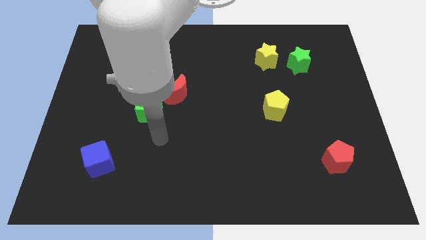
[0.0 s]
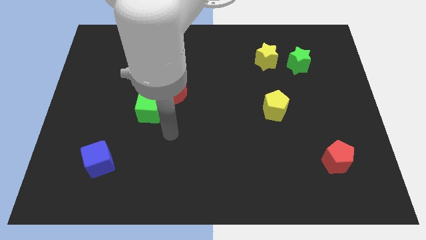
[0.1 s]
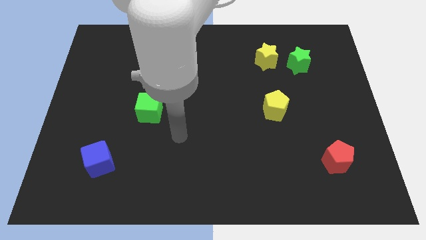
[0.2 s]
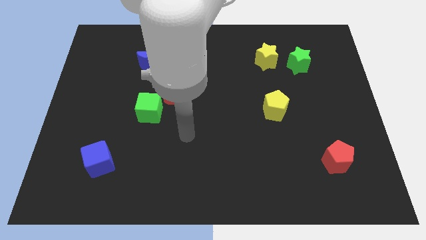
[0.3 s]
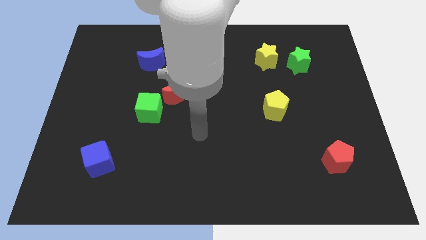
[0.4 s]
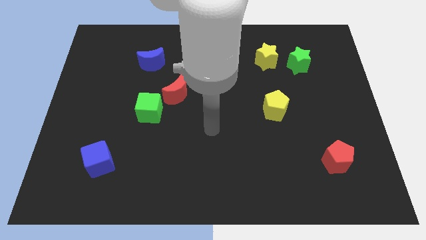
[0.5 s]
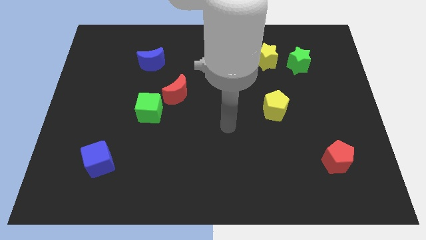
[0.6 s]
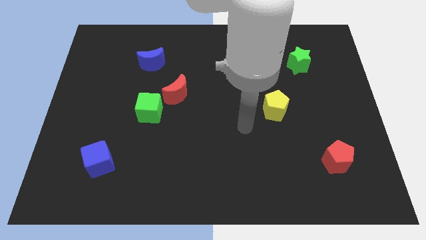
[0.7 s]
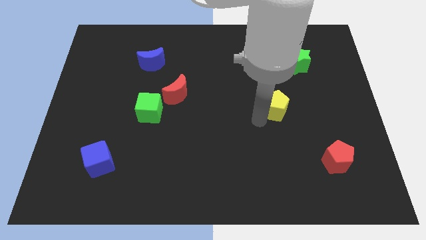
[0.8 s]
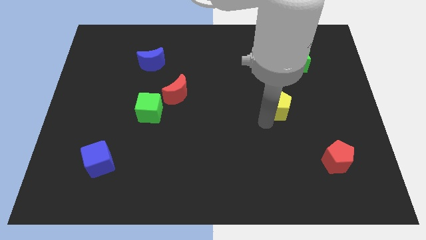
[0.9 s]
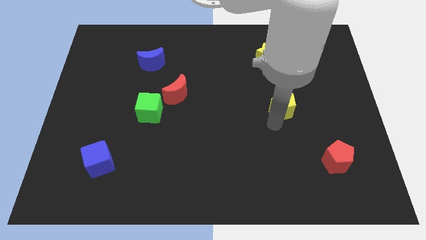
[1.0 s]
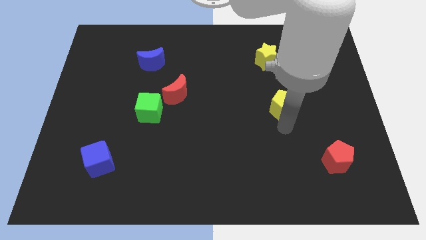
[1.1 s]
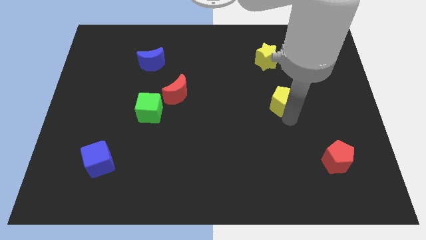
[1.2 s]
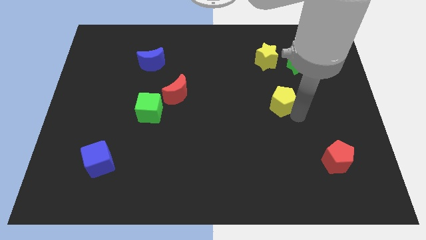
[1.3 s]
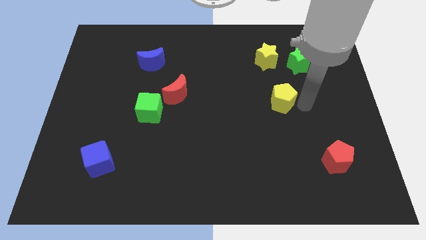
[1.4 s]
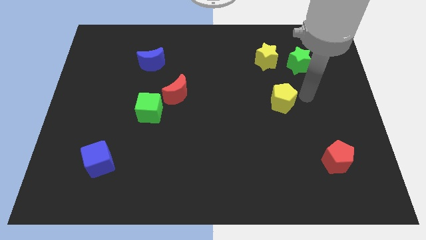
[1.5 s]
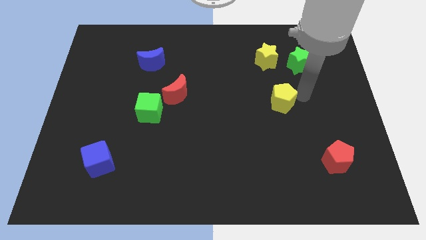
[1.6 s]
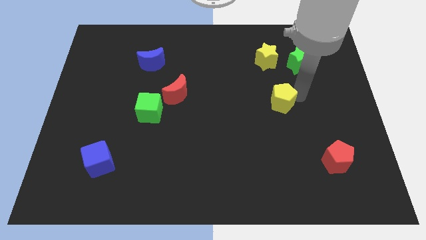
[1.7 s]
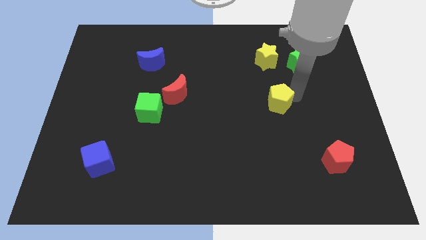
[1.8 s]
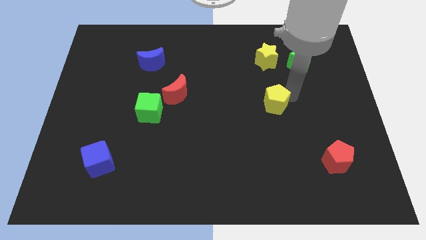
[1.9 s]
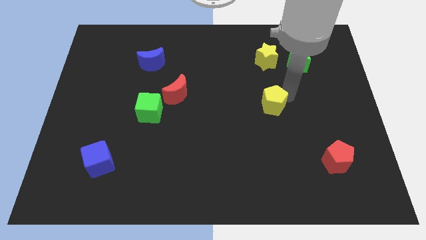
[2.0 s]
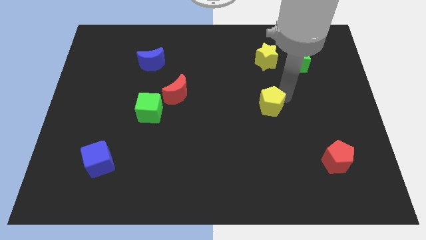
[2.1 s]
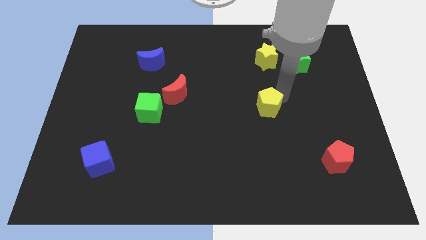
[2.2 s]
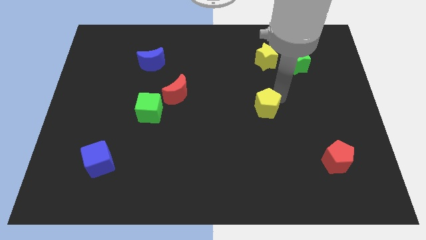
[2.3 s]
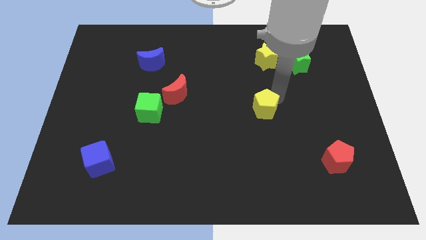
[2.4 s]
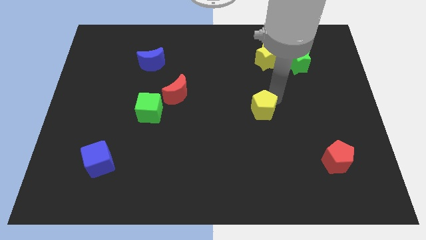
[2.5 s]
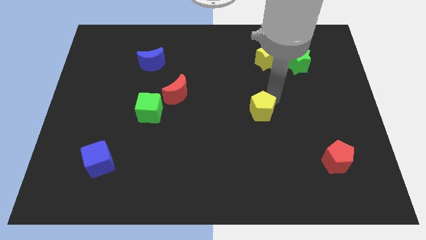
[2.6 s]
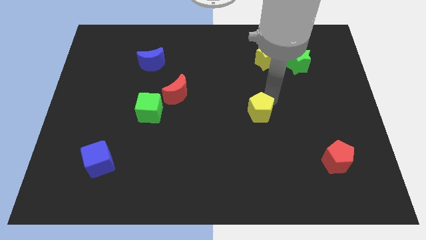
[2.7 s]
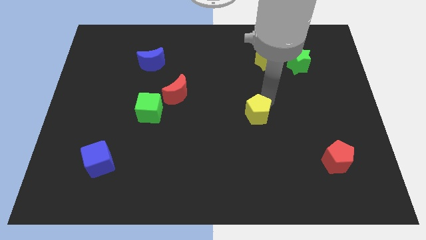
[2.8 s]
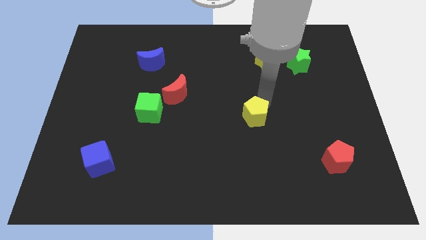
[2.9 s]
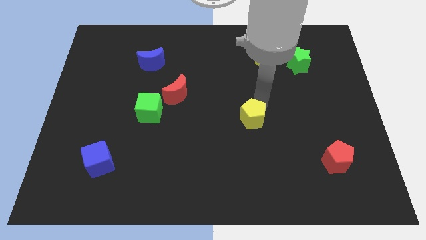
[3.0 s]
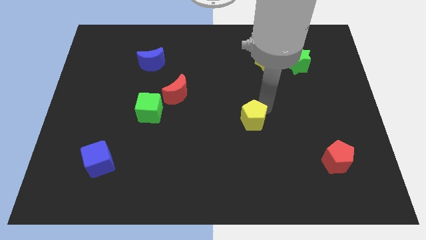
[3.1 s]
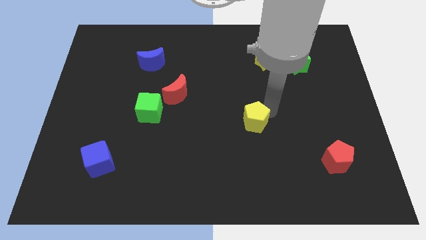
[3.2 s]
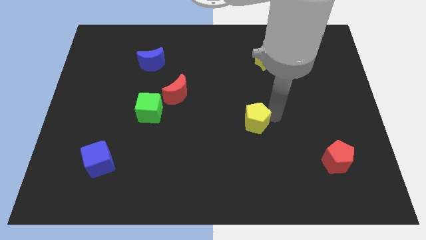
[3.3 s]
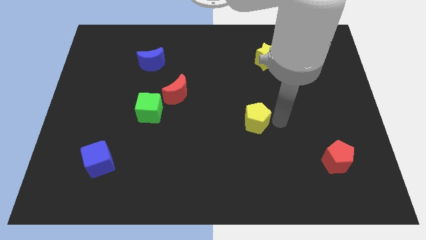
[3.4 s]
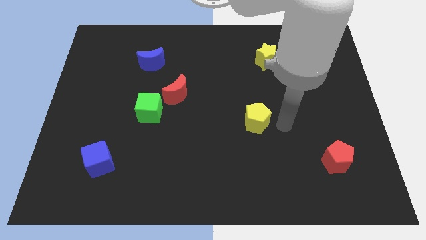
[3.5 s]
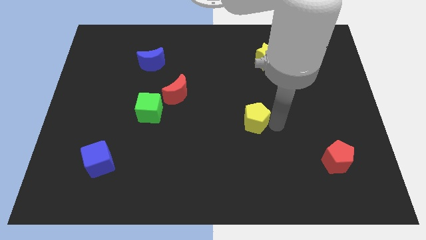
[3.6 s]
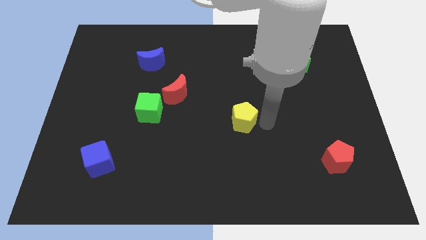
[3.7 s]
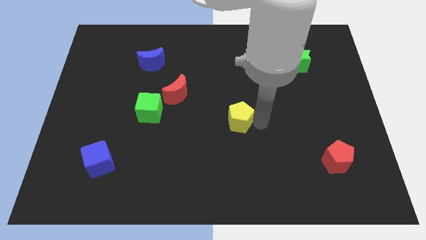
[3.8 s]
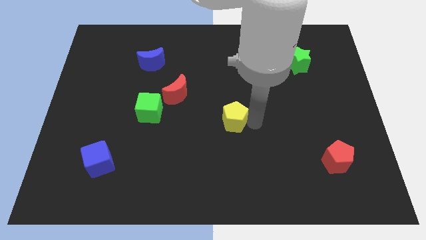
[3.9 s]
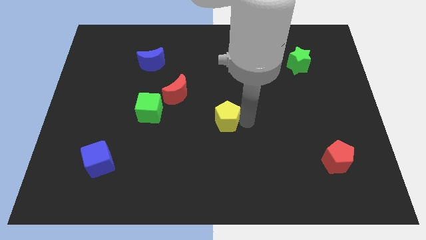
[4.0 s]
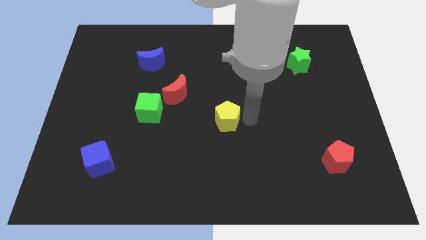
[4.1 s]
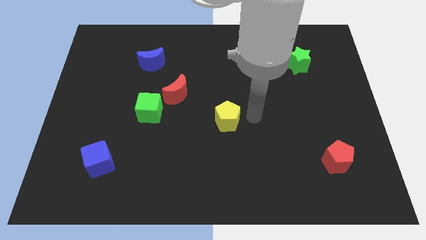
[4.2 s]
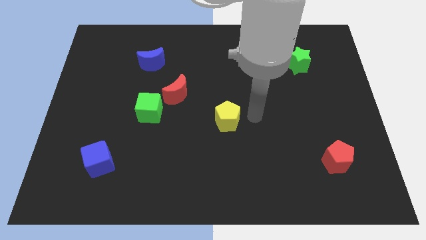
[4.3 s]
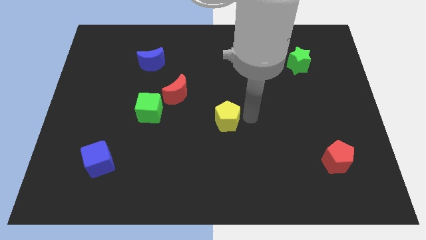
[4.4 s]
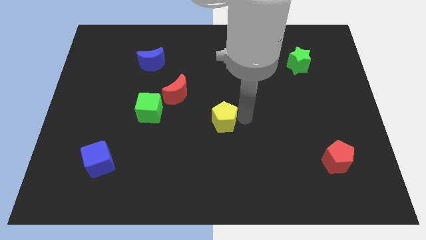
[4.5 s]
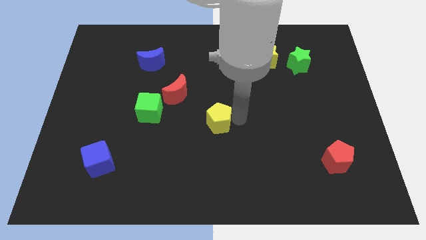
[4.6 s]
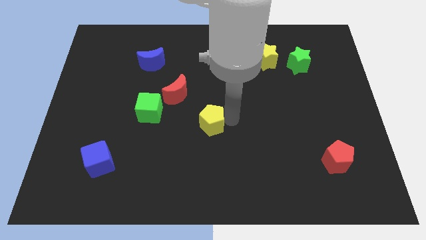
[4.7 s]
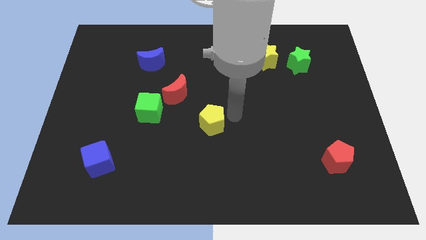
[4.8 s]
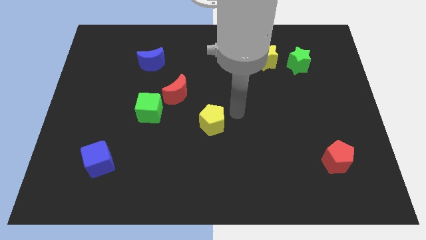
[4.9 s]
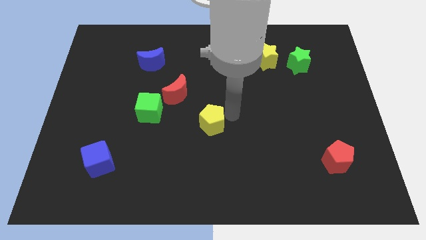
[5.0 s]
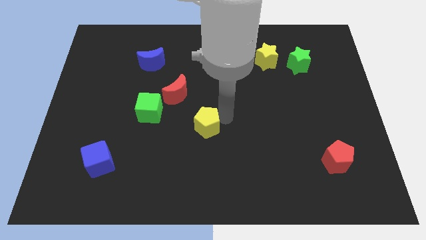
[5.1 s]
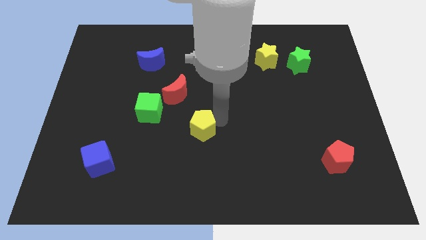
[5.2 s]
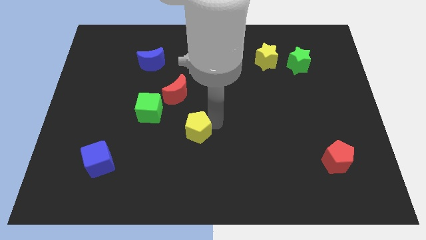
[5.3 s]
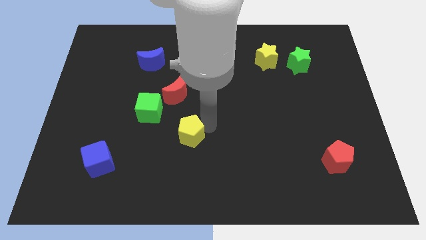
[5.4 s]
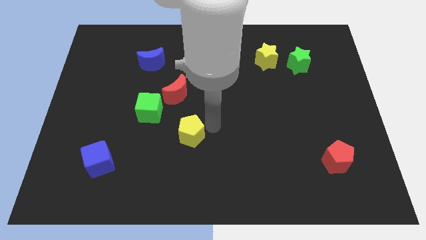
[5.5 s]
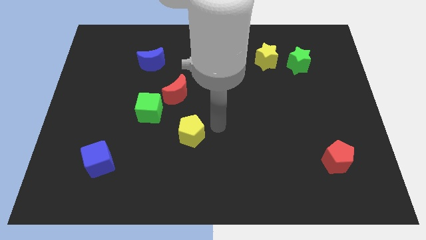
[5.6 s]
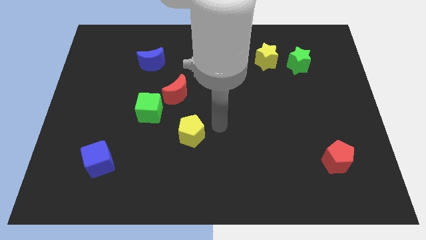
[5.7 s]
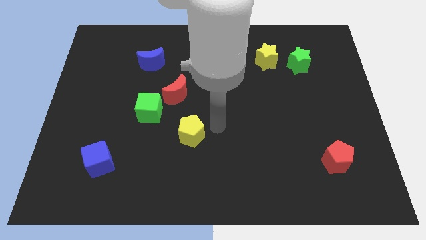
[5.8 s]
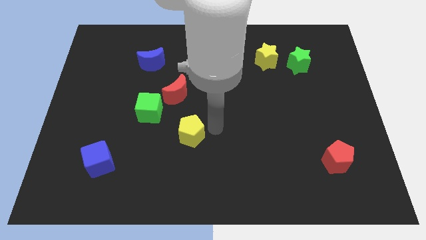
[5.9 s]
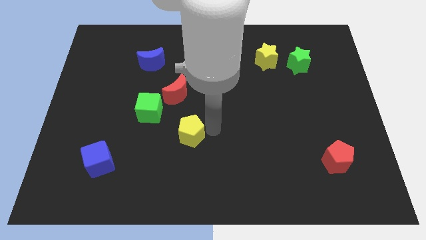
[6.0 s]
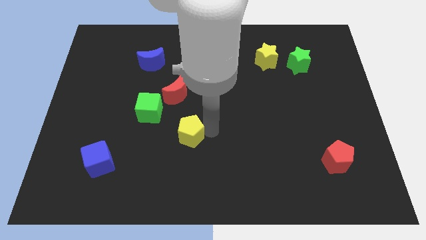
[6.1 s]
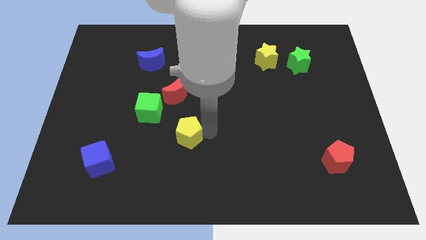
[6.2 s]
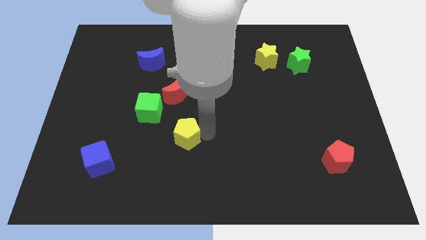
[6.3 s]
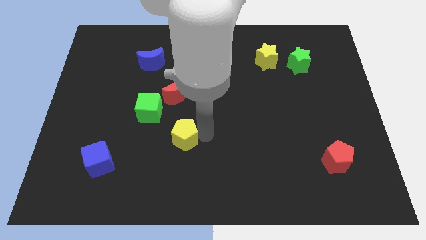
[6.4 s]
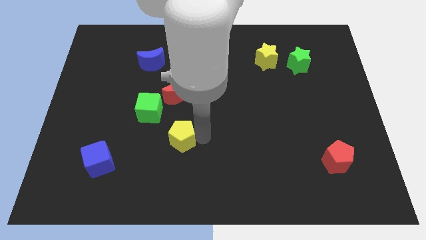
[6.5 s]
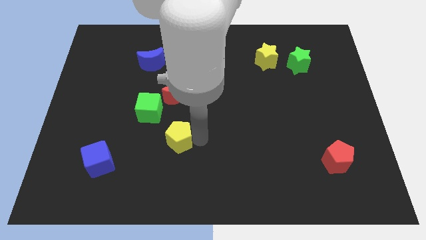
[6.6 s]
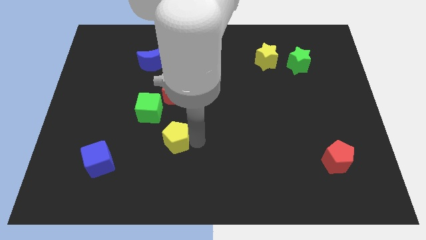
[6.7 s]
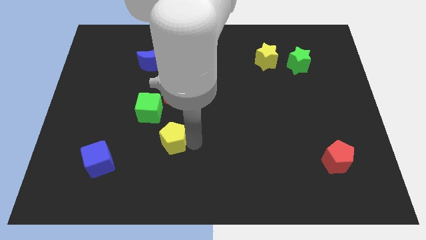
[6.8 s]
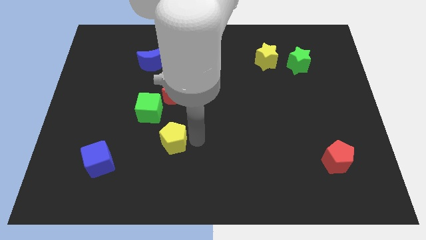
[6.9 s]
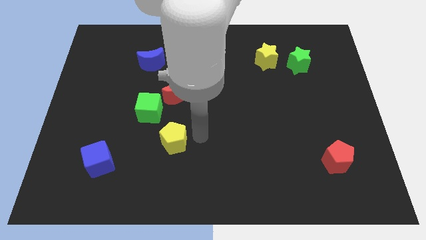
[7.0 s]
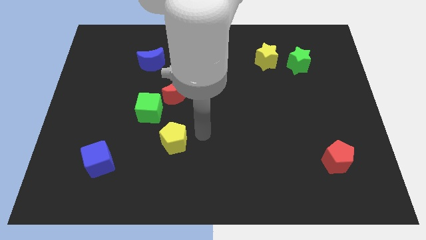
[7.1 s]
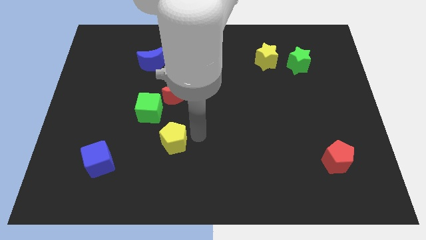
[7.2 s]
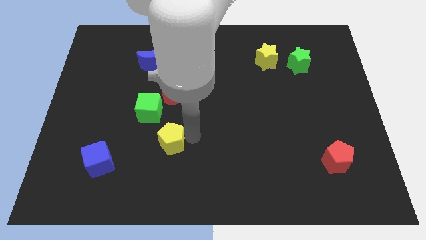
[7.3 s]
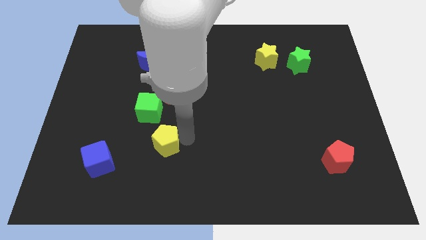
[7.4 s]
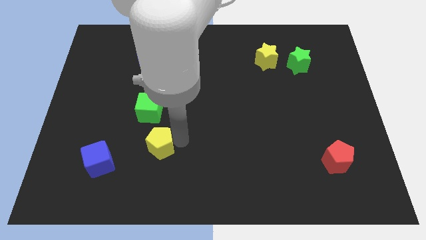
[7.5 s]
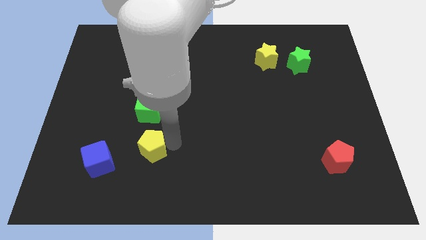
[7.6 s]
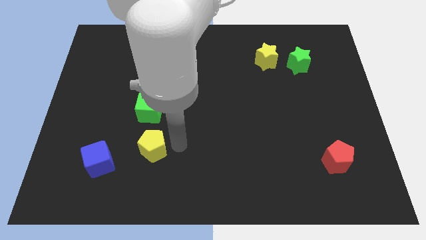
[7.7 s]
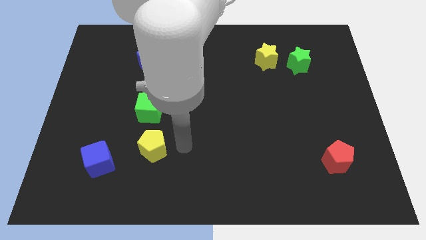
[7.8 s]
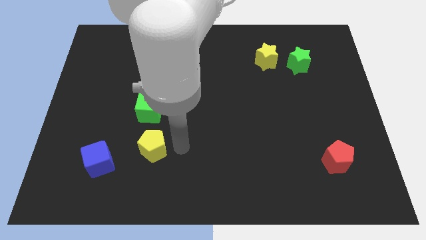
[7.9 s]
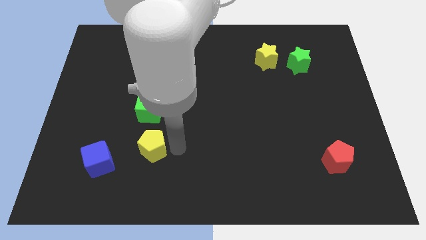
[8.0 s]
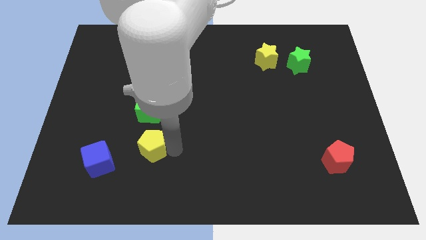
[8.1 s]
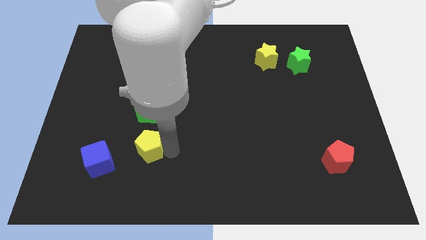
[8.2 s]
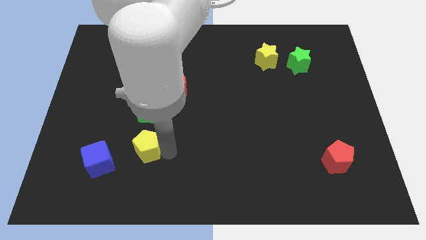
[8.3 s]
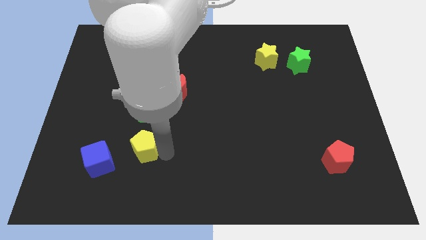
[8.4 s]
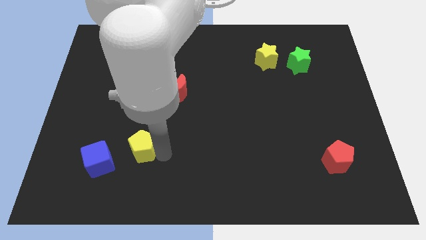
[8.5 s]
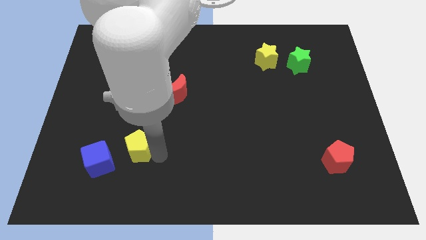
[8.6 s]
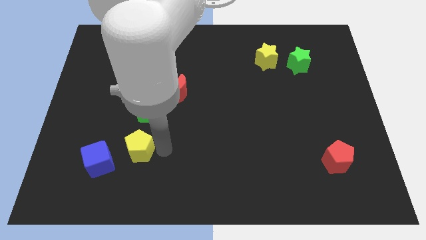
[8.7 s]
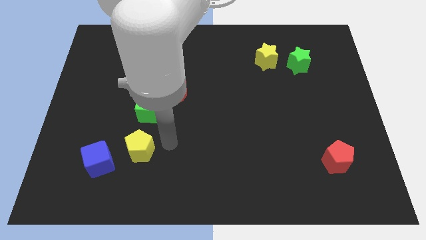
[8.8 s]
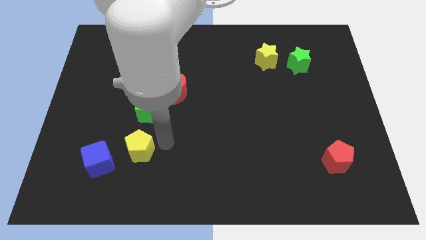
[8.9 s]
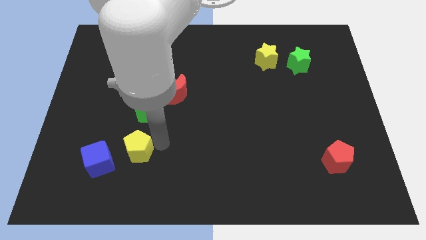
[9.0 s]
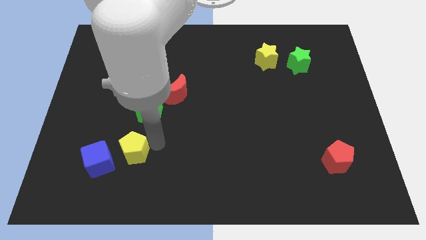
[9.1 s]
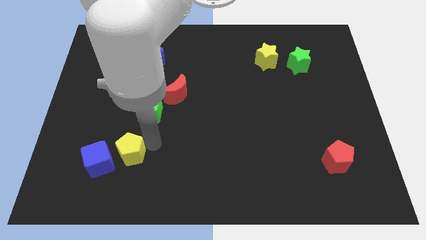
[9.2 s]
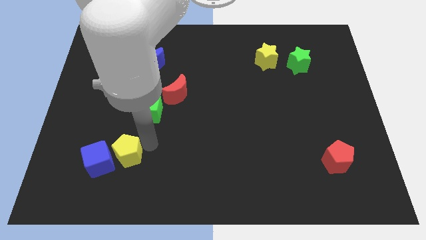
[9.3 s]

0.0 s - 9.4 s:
push the yellow pentagon next to the blue cube
